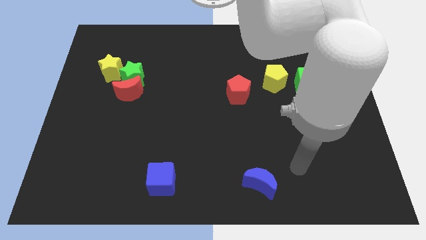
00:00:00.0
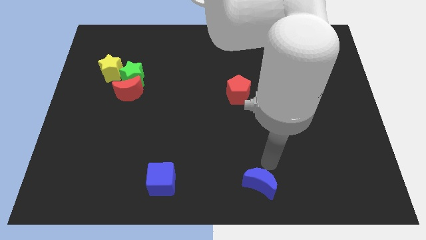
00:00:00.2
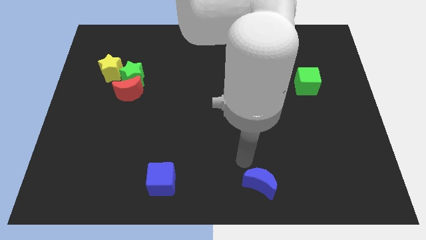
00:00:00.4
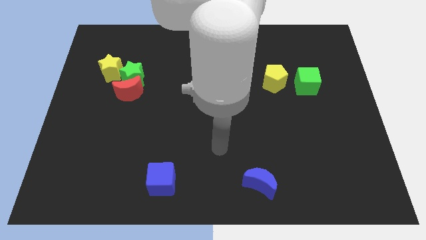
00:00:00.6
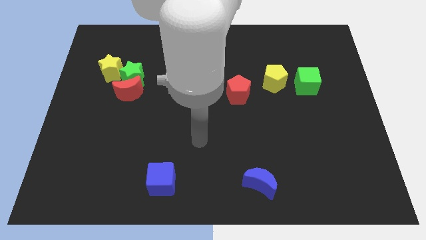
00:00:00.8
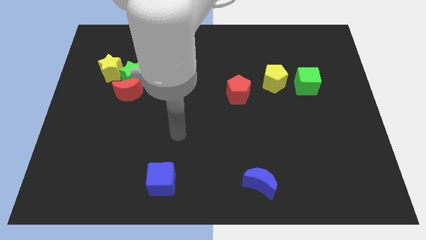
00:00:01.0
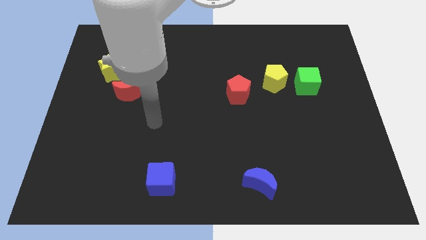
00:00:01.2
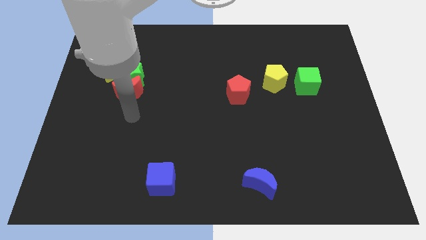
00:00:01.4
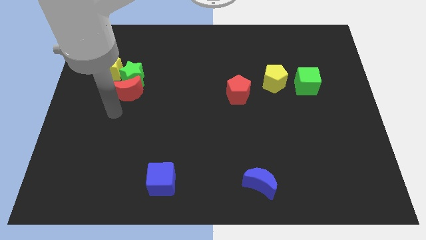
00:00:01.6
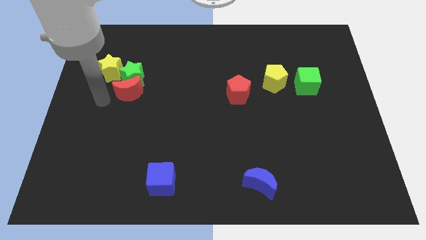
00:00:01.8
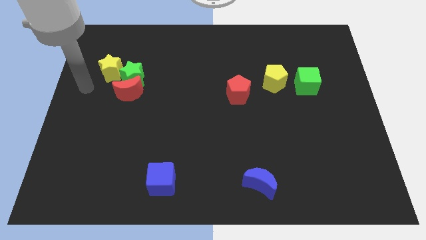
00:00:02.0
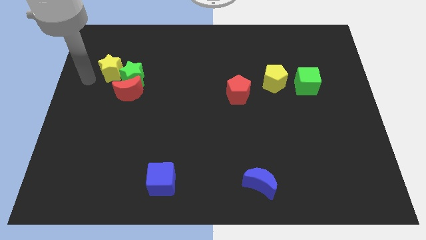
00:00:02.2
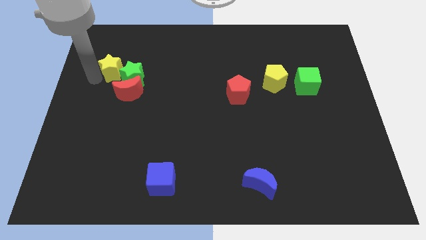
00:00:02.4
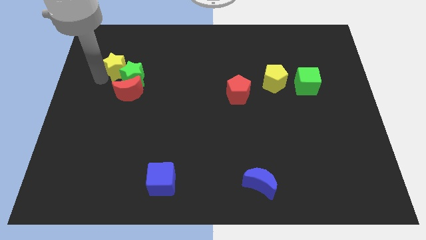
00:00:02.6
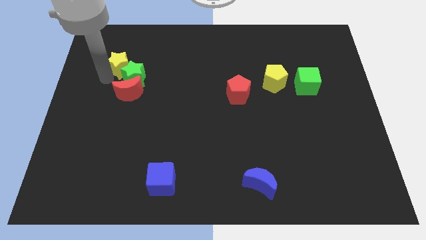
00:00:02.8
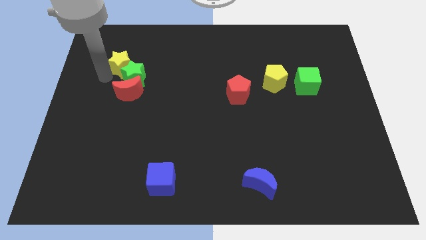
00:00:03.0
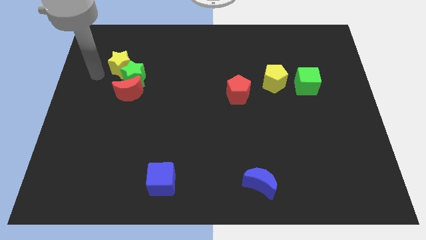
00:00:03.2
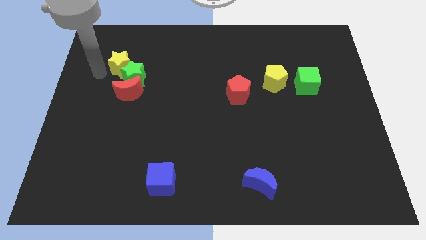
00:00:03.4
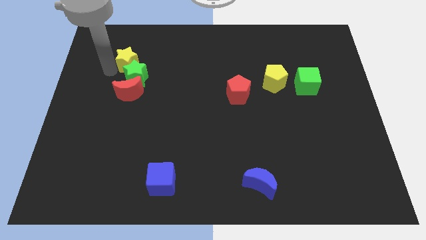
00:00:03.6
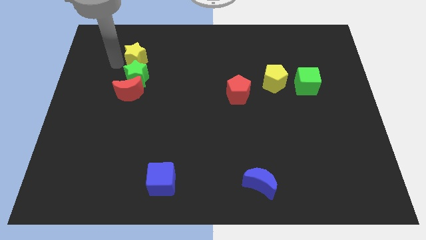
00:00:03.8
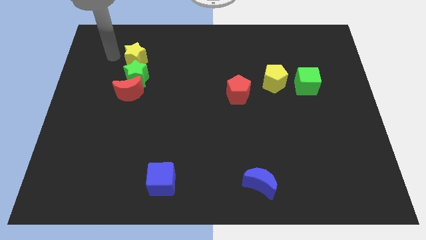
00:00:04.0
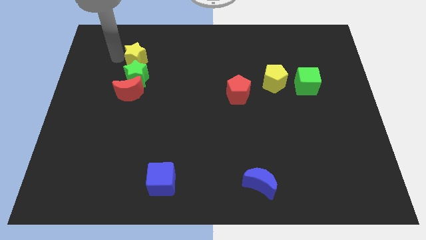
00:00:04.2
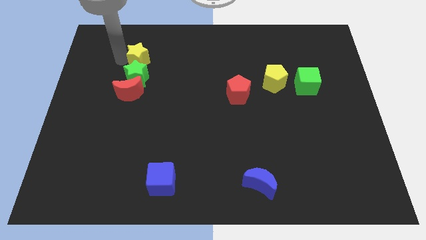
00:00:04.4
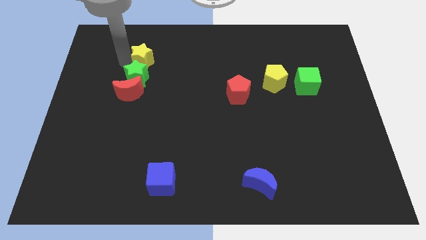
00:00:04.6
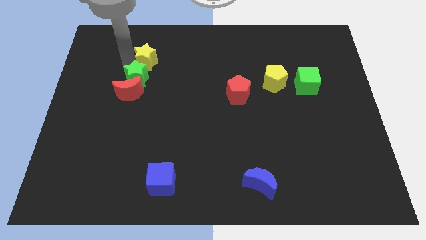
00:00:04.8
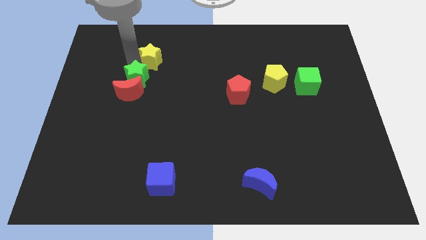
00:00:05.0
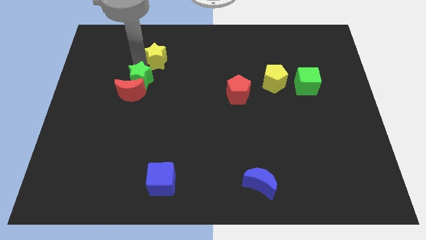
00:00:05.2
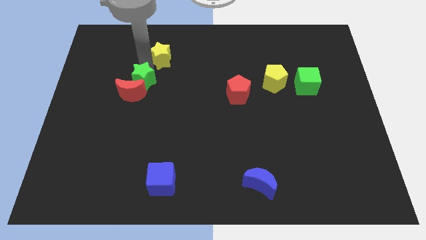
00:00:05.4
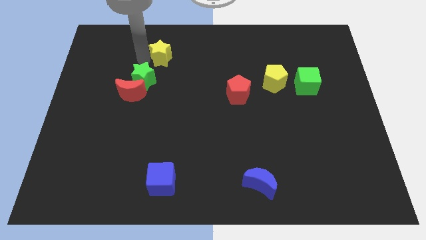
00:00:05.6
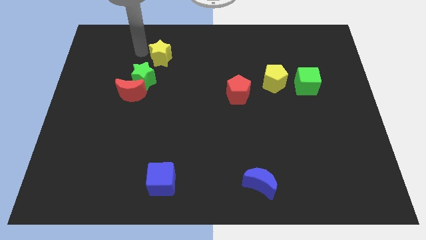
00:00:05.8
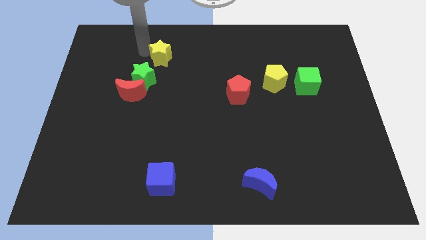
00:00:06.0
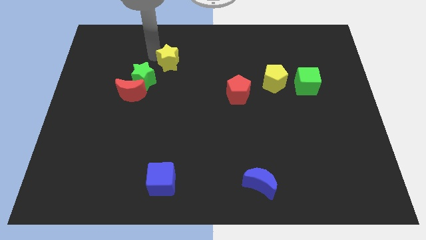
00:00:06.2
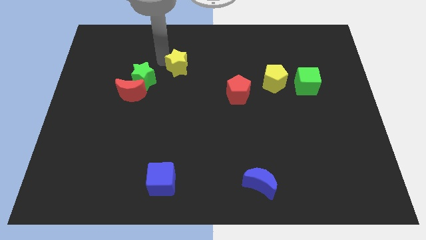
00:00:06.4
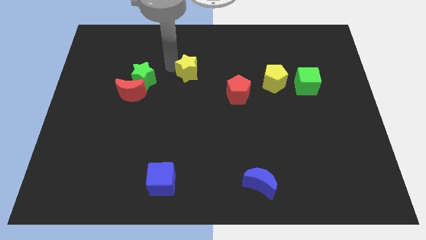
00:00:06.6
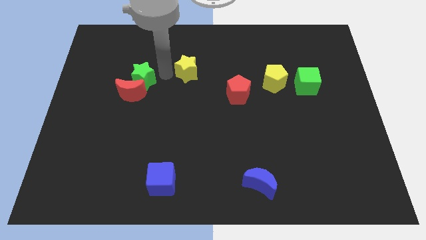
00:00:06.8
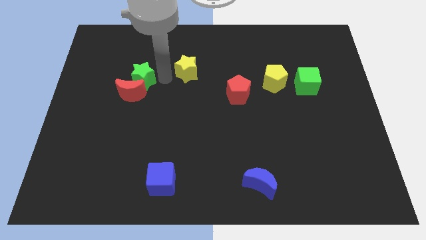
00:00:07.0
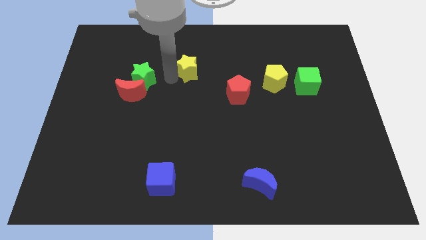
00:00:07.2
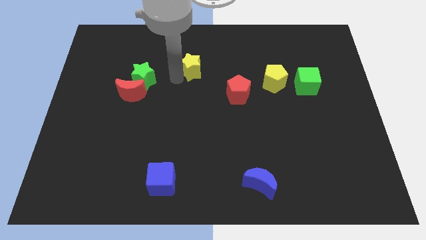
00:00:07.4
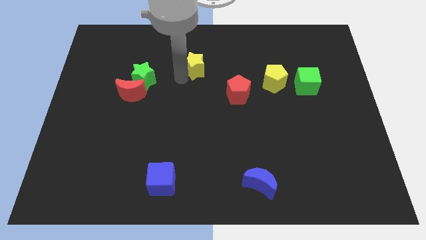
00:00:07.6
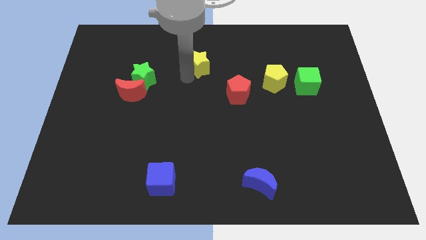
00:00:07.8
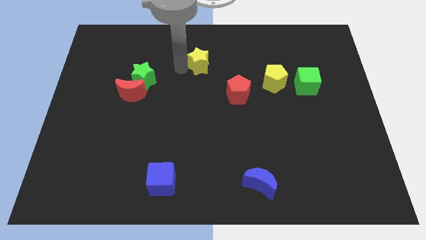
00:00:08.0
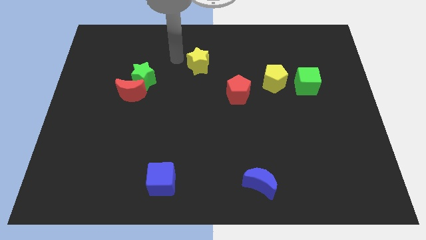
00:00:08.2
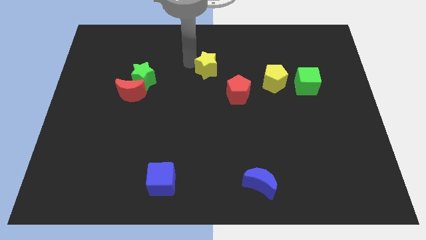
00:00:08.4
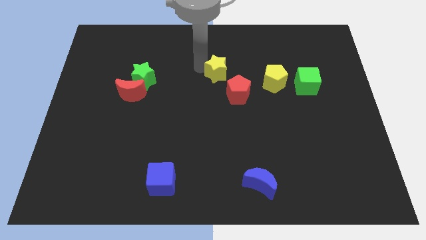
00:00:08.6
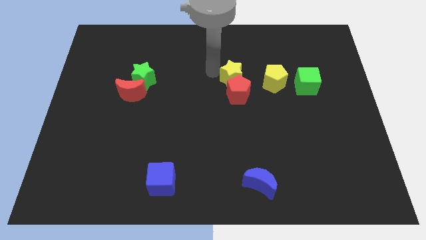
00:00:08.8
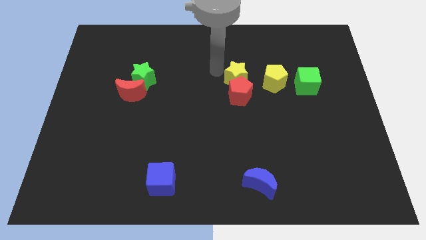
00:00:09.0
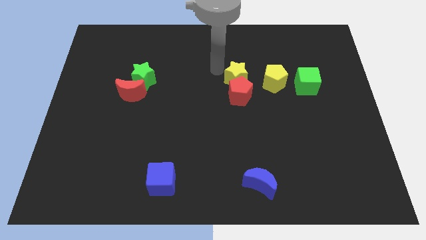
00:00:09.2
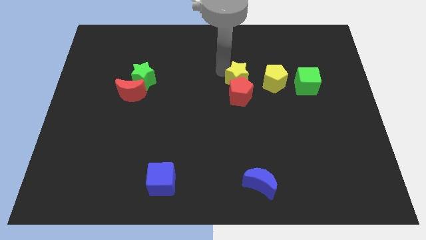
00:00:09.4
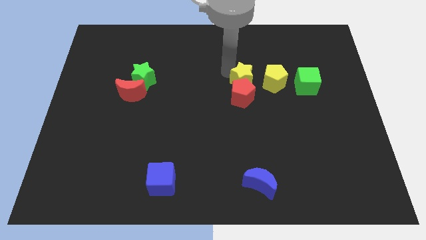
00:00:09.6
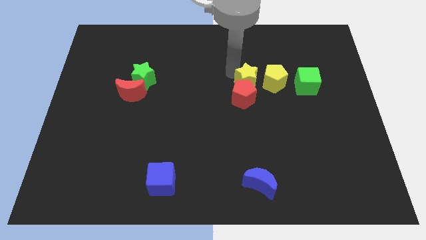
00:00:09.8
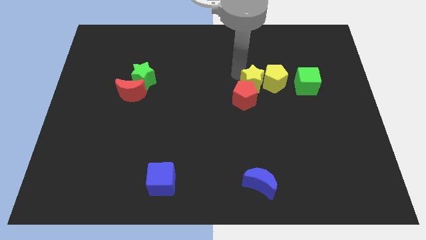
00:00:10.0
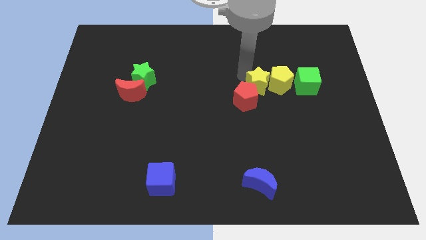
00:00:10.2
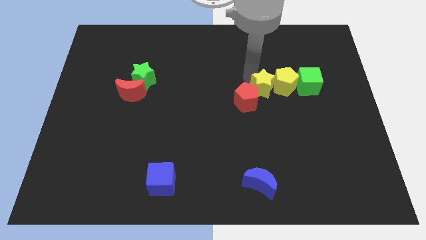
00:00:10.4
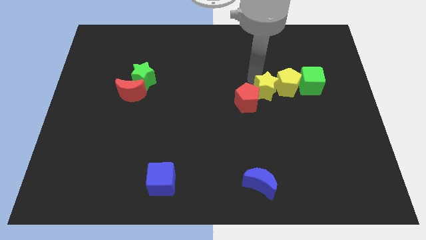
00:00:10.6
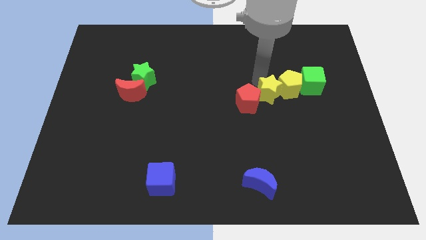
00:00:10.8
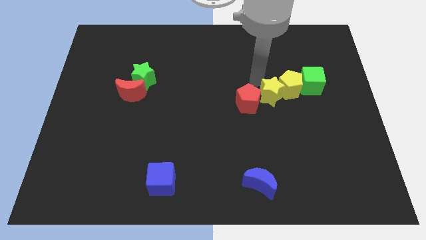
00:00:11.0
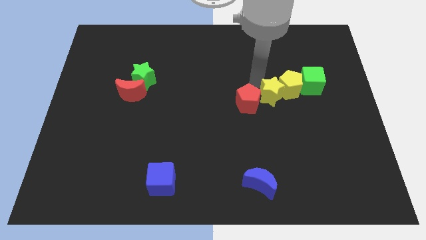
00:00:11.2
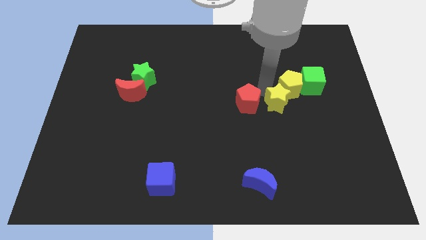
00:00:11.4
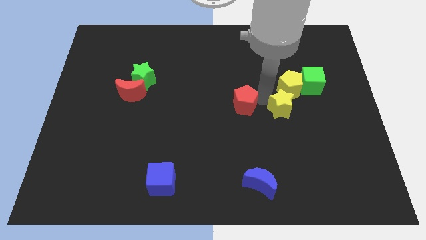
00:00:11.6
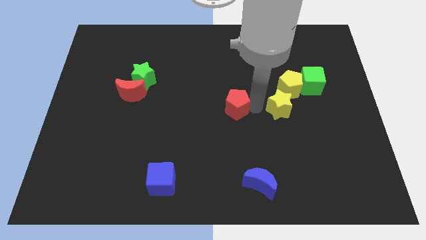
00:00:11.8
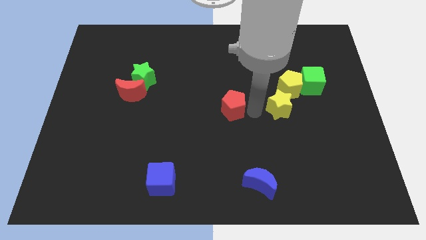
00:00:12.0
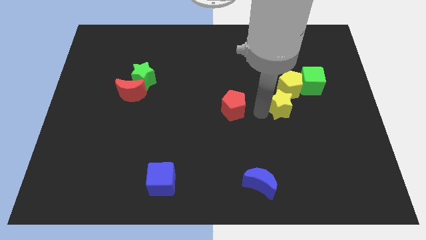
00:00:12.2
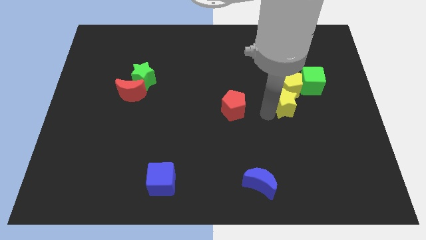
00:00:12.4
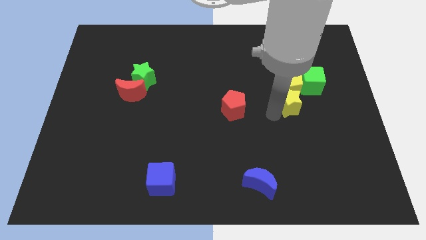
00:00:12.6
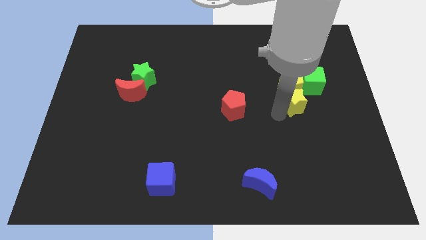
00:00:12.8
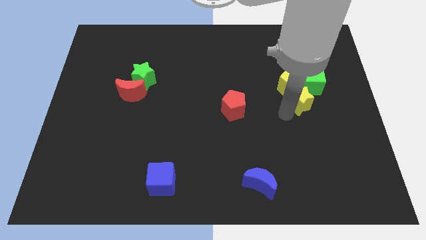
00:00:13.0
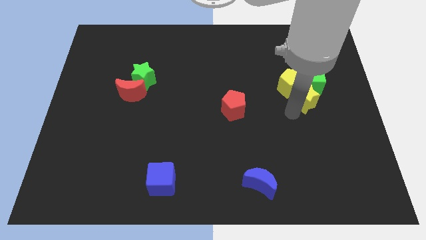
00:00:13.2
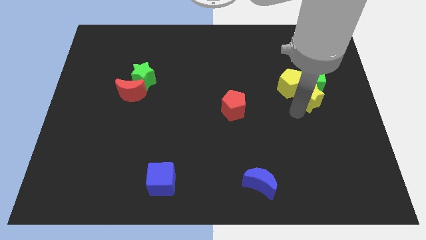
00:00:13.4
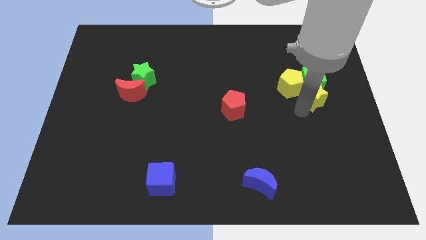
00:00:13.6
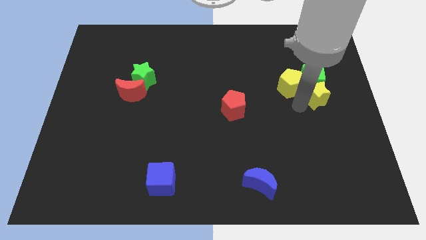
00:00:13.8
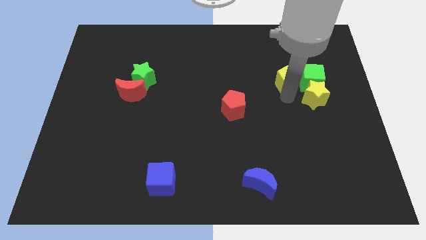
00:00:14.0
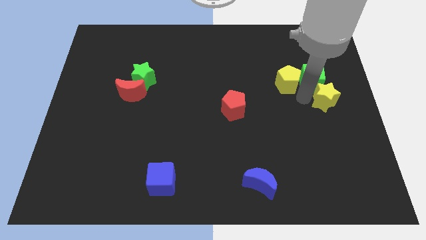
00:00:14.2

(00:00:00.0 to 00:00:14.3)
move the yellow star to the center right
